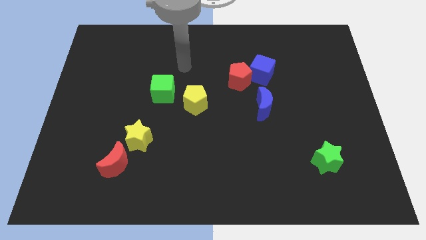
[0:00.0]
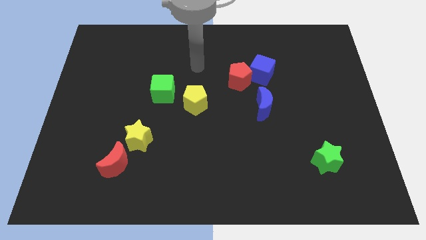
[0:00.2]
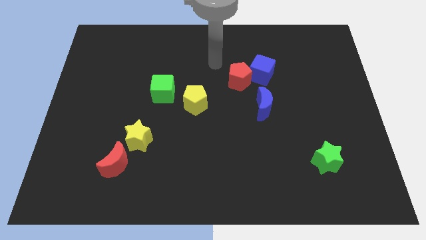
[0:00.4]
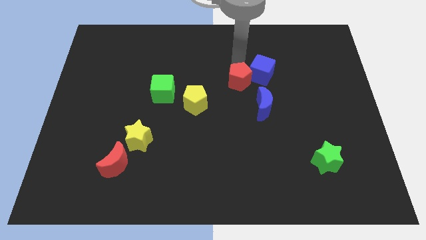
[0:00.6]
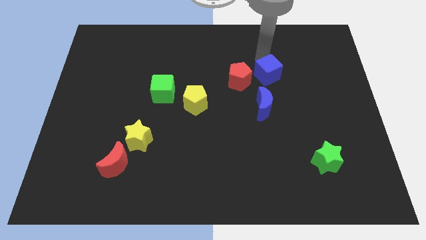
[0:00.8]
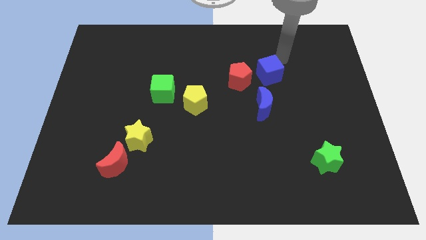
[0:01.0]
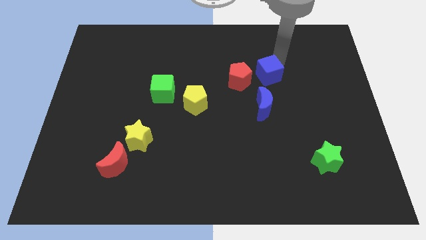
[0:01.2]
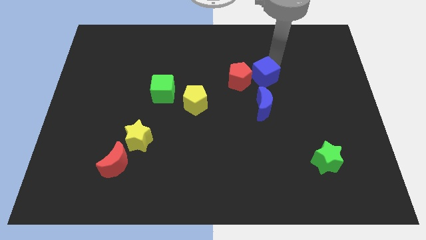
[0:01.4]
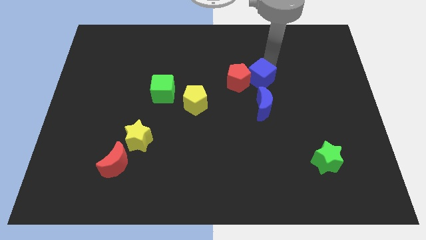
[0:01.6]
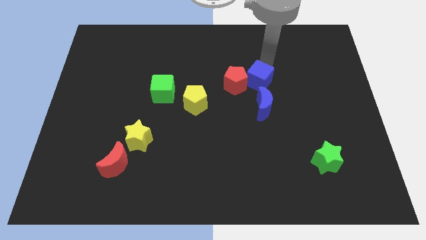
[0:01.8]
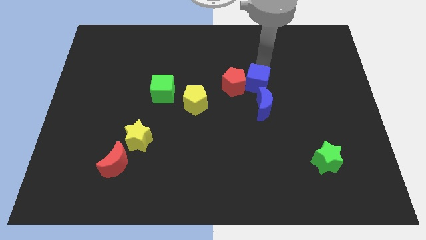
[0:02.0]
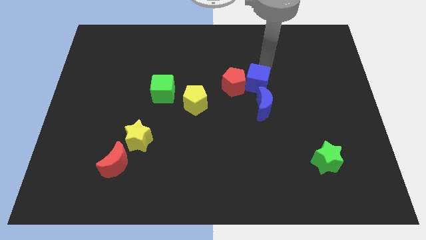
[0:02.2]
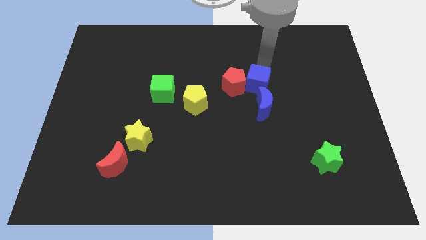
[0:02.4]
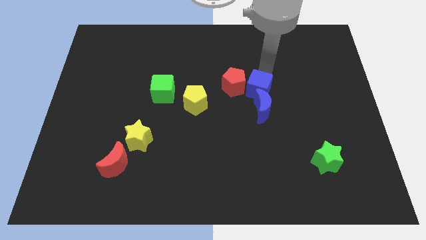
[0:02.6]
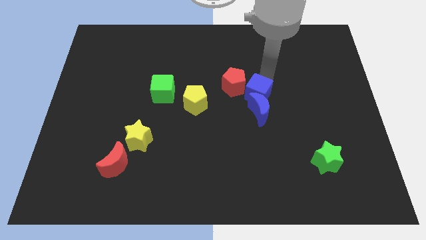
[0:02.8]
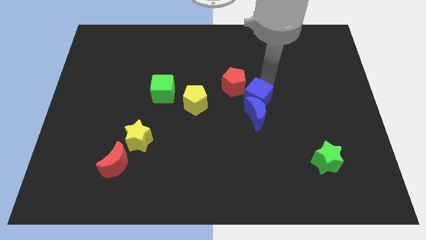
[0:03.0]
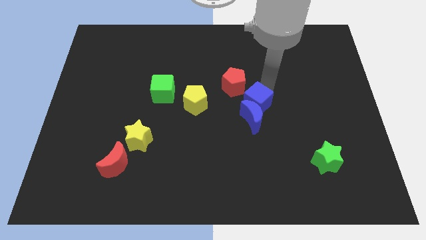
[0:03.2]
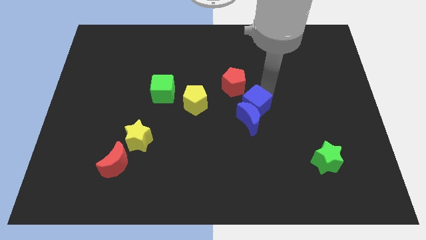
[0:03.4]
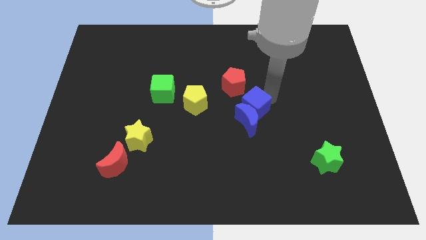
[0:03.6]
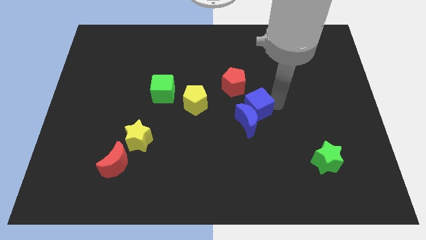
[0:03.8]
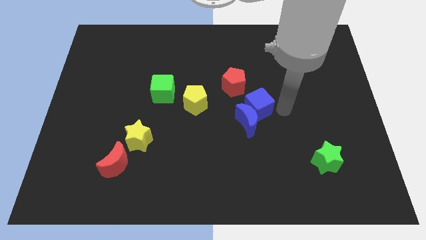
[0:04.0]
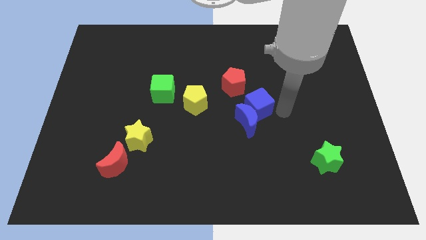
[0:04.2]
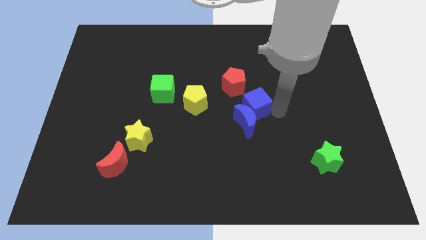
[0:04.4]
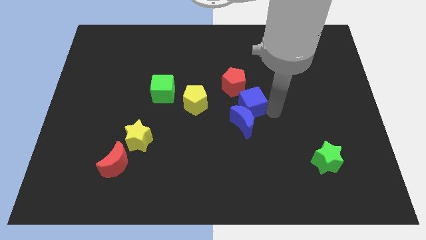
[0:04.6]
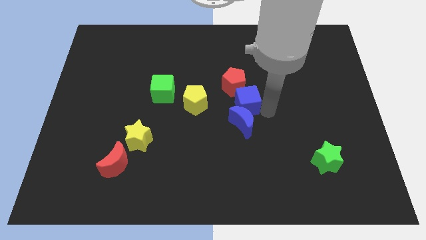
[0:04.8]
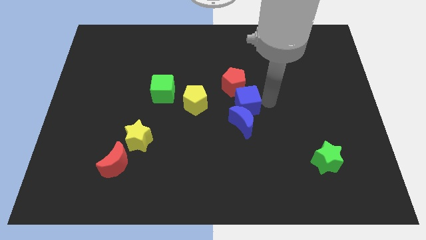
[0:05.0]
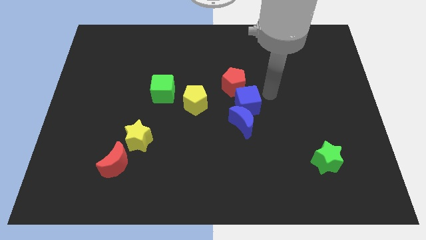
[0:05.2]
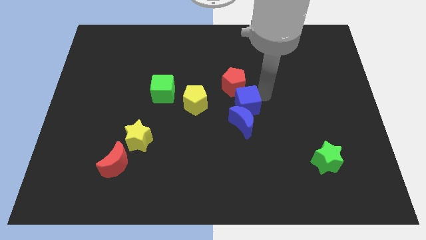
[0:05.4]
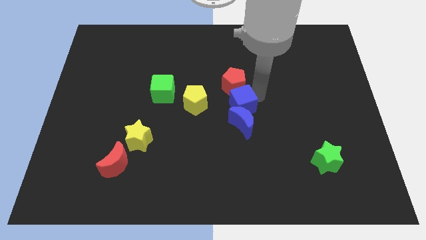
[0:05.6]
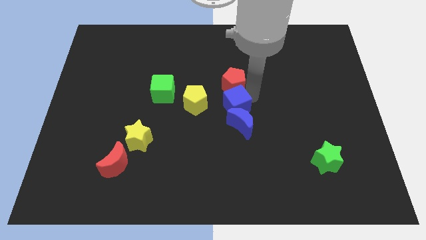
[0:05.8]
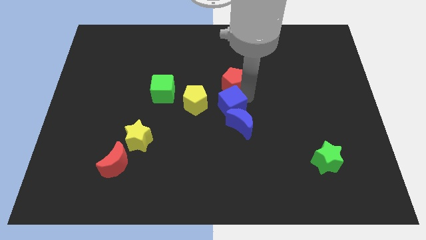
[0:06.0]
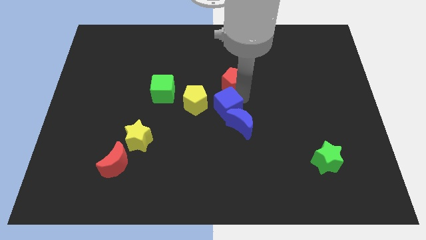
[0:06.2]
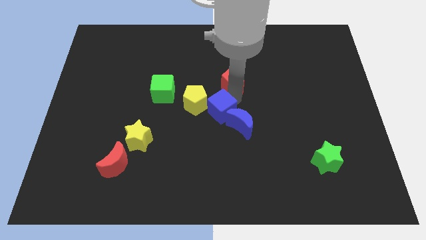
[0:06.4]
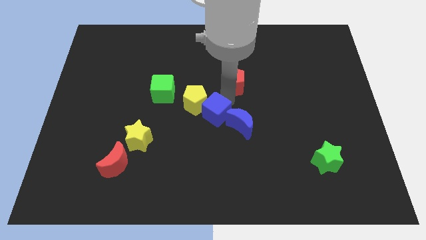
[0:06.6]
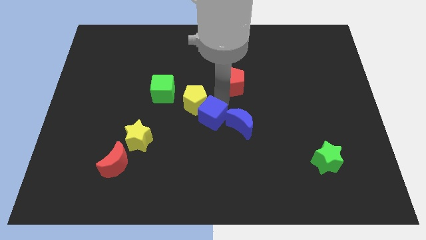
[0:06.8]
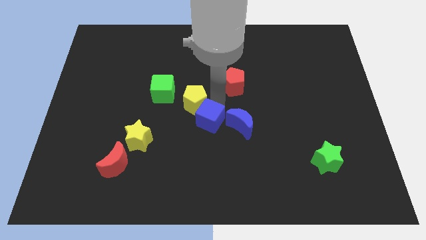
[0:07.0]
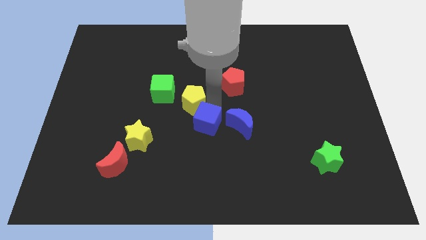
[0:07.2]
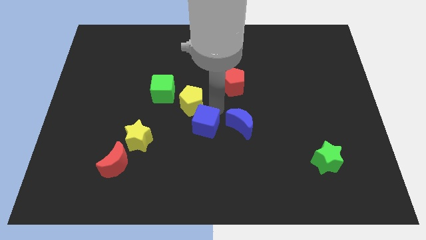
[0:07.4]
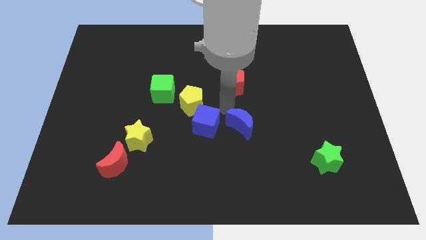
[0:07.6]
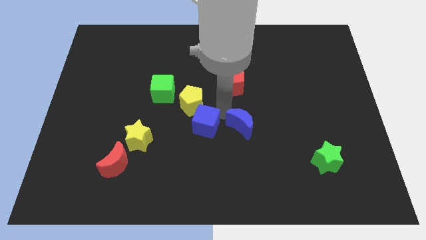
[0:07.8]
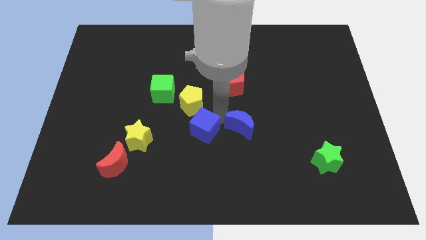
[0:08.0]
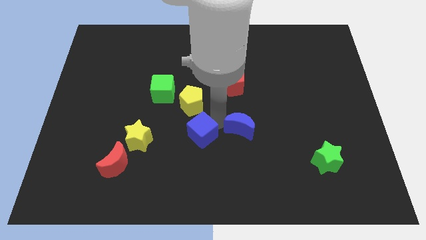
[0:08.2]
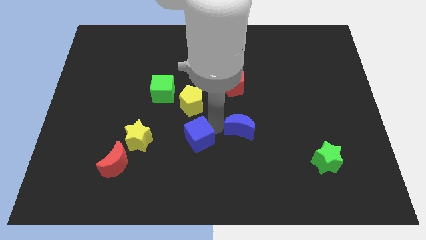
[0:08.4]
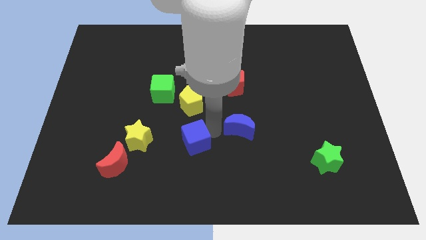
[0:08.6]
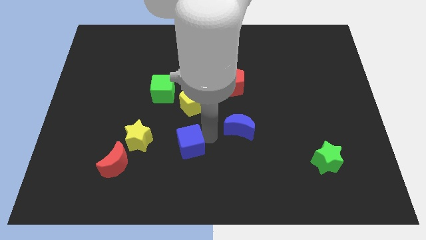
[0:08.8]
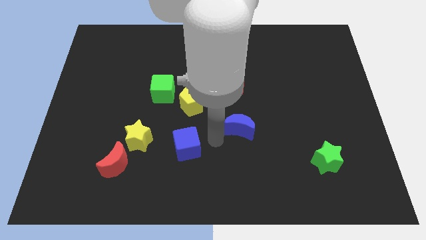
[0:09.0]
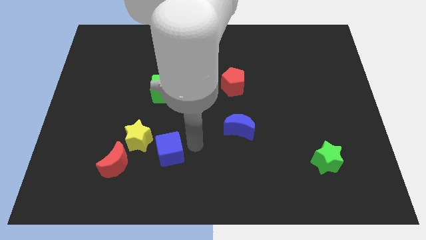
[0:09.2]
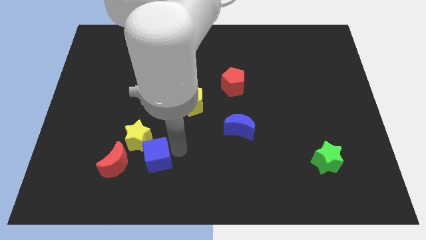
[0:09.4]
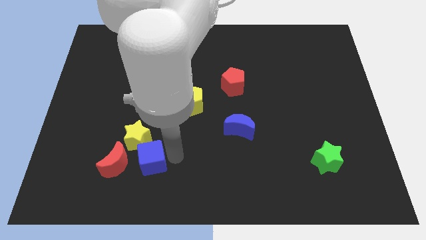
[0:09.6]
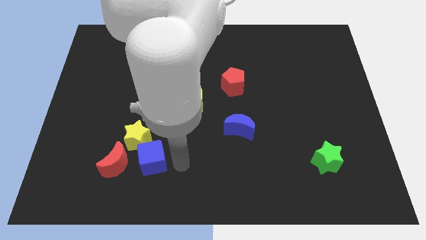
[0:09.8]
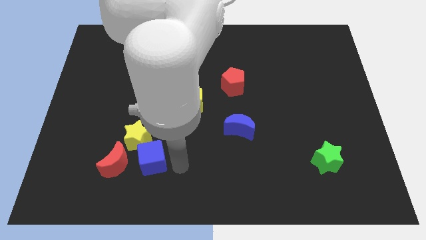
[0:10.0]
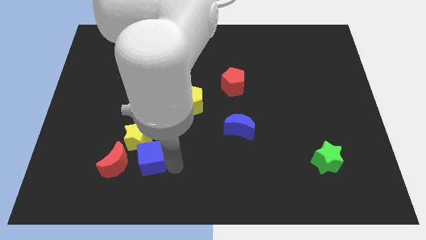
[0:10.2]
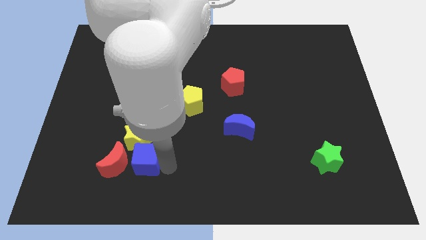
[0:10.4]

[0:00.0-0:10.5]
slide the blue cube to the red moon

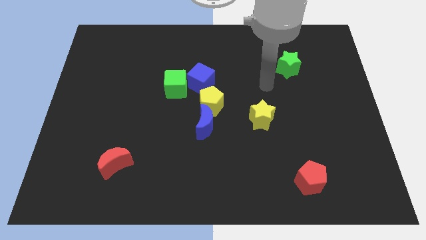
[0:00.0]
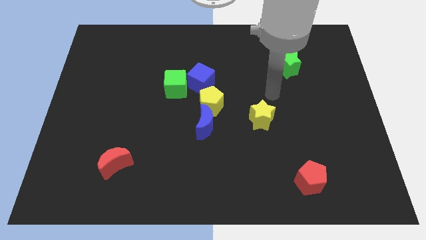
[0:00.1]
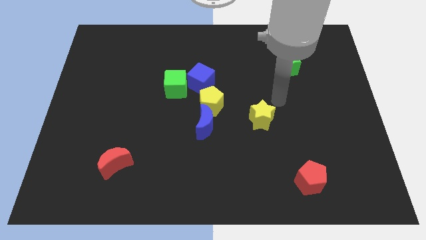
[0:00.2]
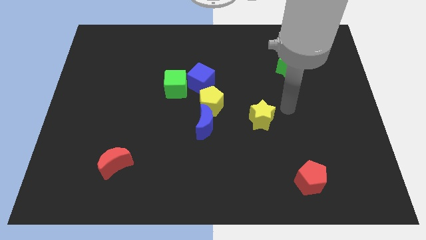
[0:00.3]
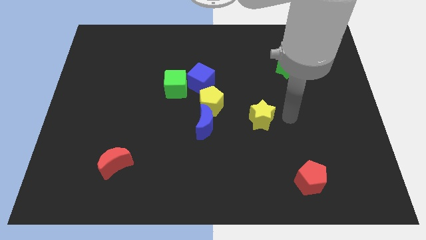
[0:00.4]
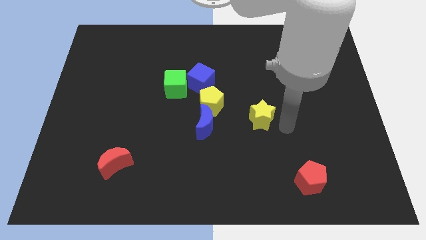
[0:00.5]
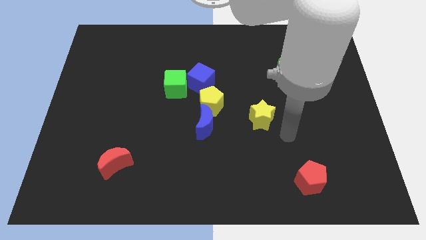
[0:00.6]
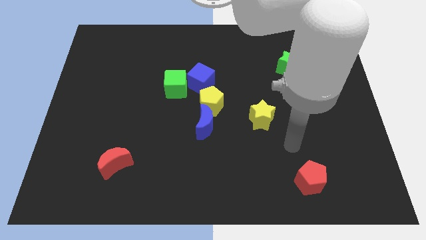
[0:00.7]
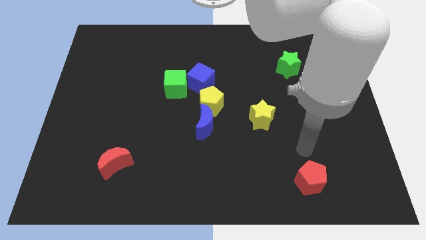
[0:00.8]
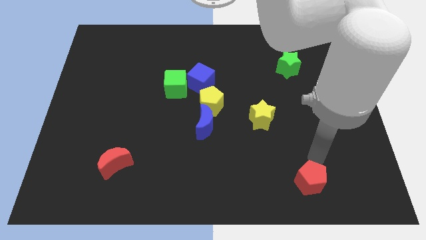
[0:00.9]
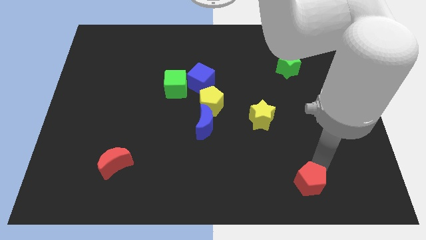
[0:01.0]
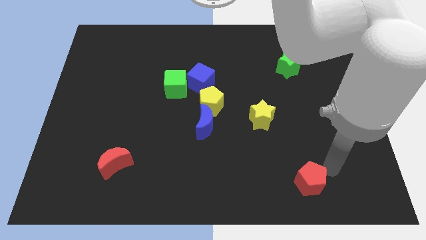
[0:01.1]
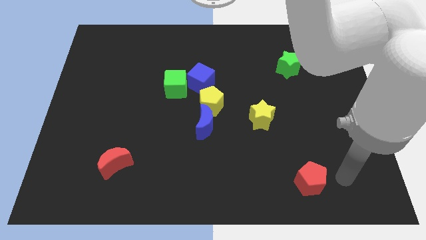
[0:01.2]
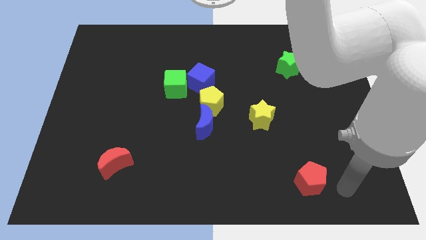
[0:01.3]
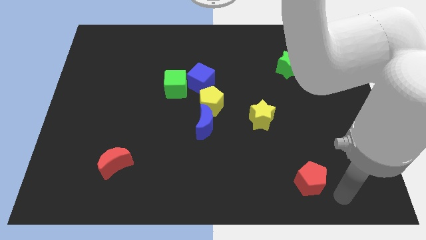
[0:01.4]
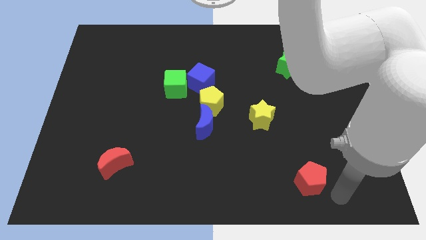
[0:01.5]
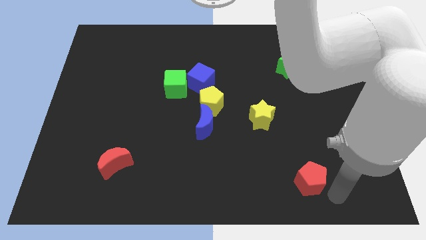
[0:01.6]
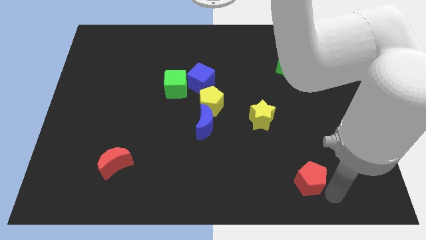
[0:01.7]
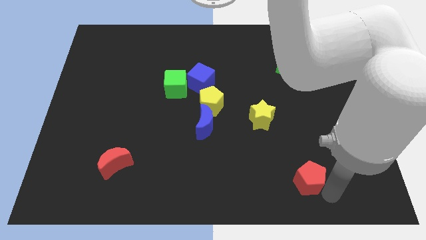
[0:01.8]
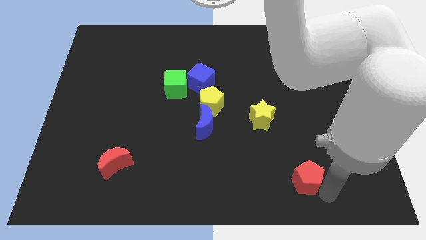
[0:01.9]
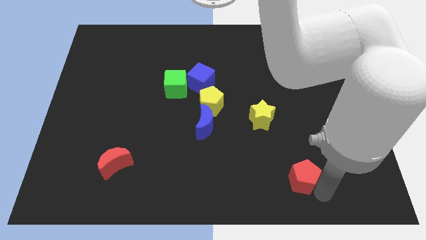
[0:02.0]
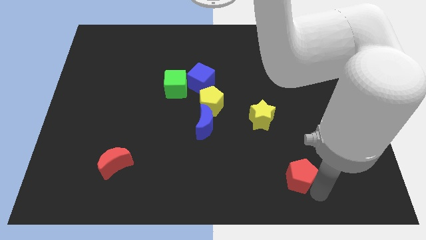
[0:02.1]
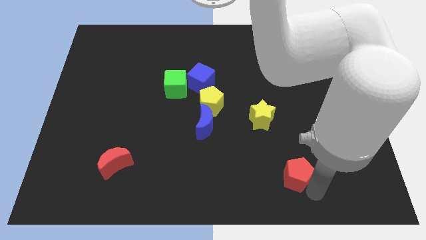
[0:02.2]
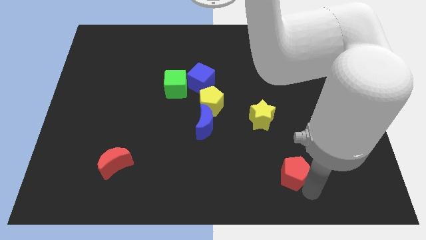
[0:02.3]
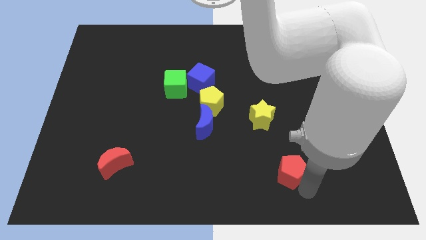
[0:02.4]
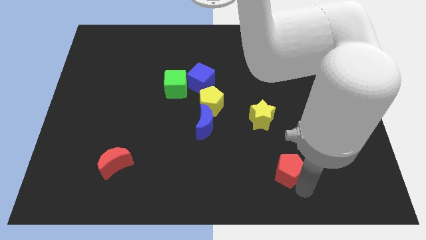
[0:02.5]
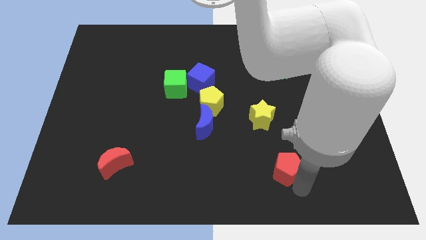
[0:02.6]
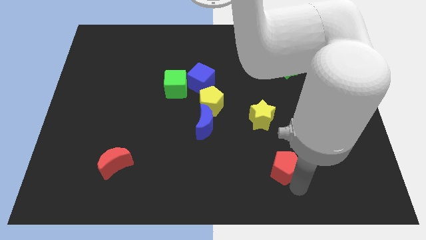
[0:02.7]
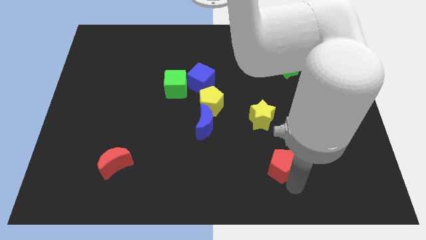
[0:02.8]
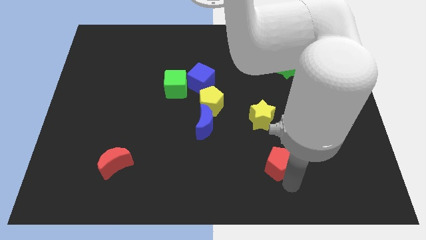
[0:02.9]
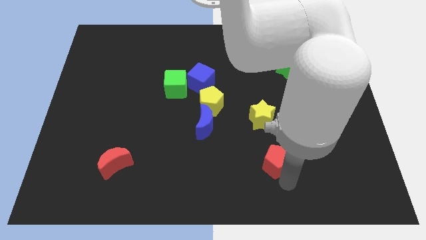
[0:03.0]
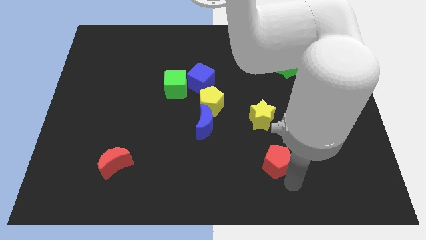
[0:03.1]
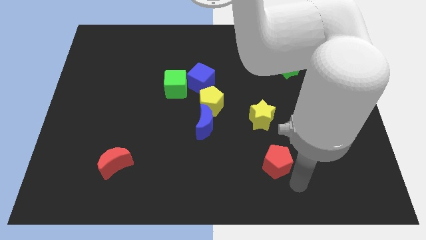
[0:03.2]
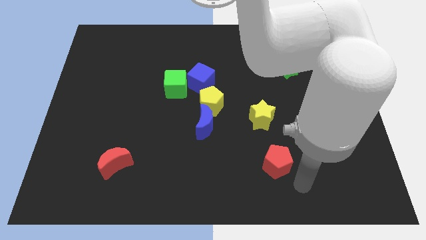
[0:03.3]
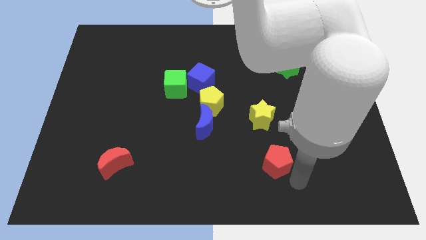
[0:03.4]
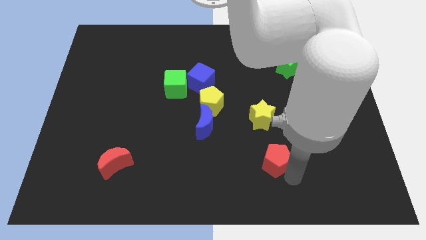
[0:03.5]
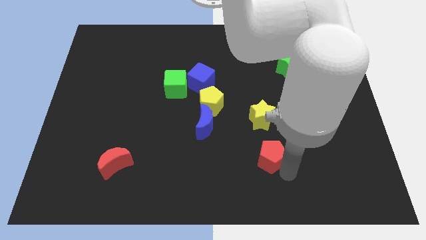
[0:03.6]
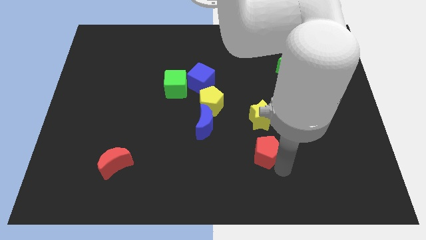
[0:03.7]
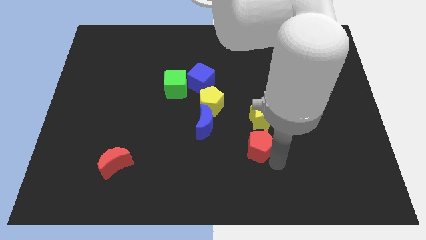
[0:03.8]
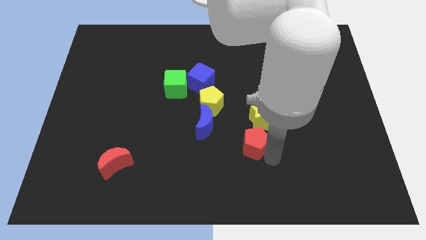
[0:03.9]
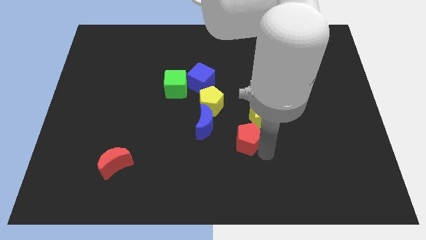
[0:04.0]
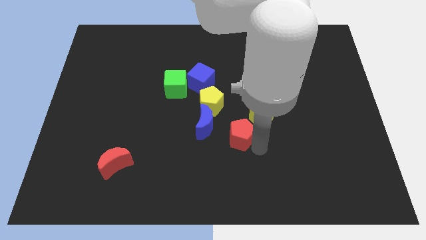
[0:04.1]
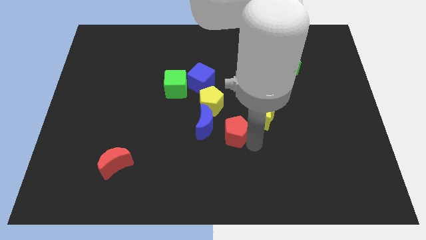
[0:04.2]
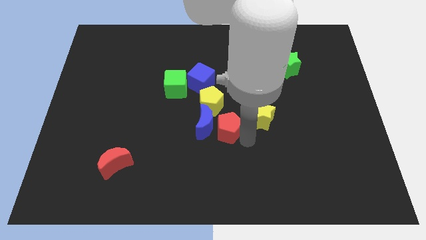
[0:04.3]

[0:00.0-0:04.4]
push the red pentagon close to the blue moon
